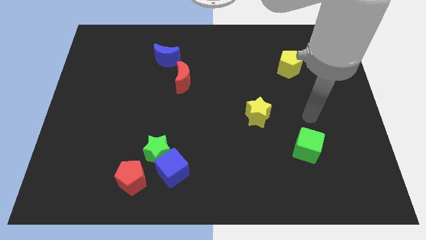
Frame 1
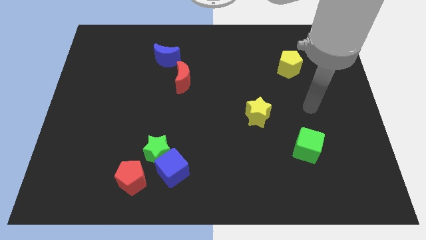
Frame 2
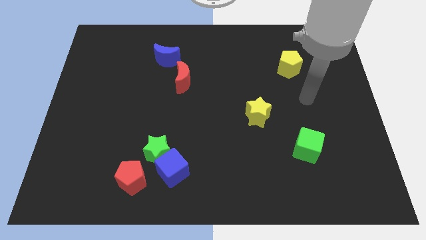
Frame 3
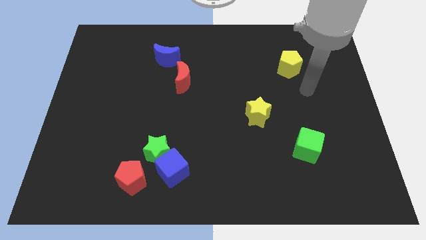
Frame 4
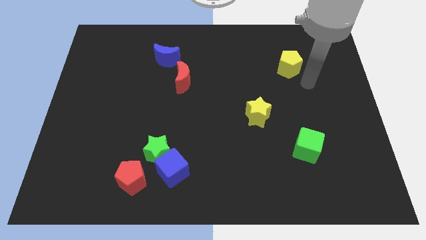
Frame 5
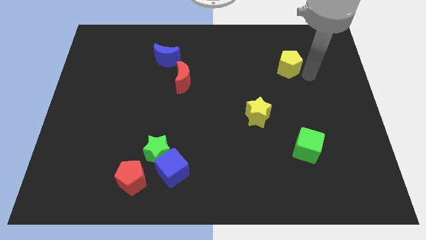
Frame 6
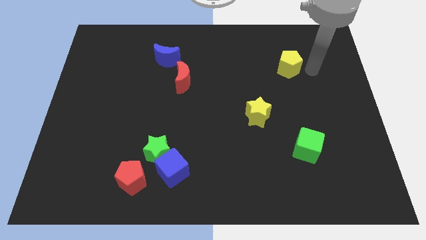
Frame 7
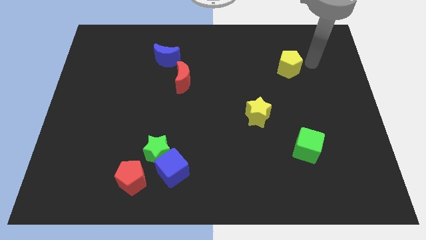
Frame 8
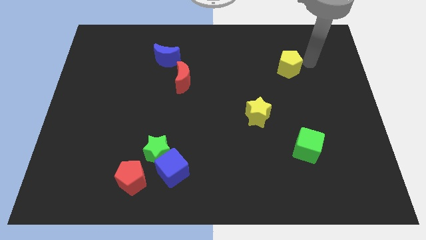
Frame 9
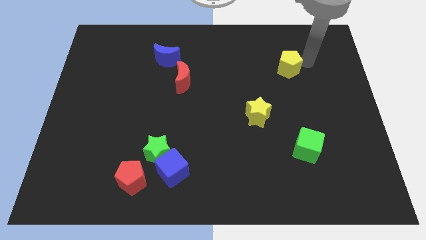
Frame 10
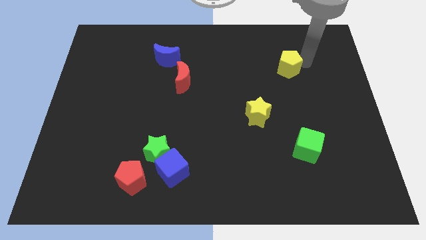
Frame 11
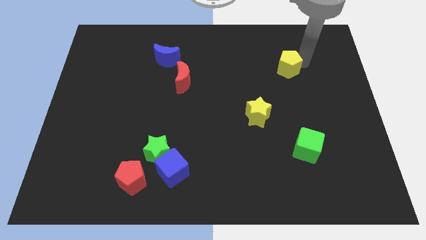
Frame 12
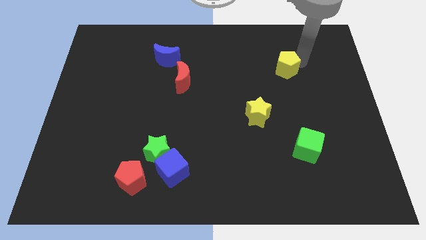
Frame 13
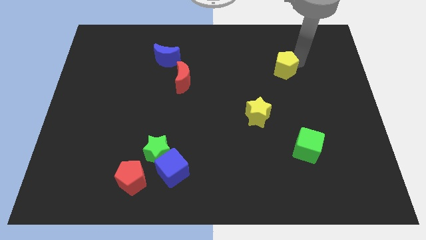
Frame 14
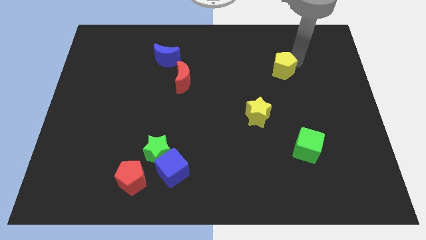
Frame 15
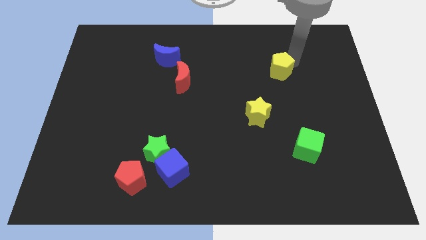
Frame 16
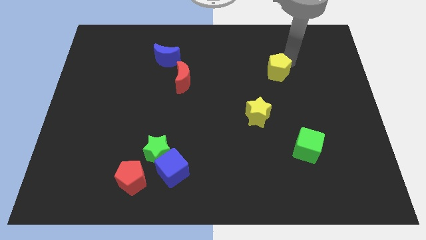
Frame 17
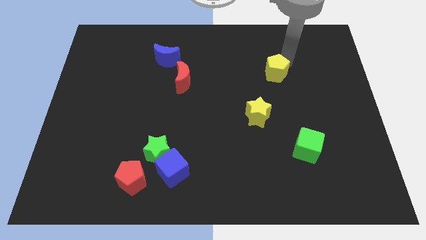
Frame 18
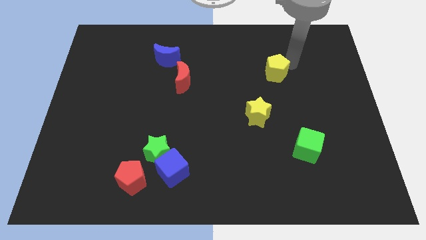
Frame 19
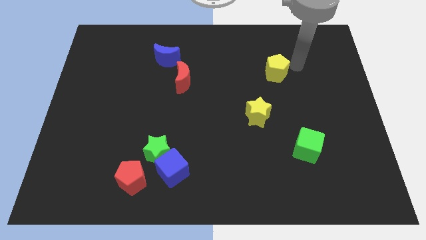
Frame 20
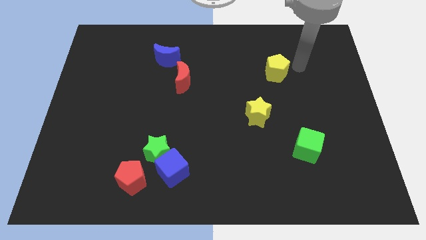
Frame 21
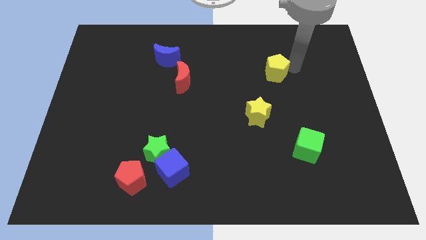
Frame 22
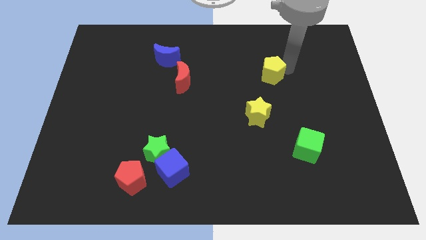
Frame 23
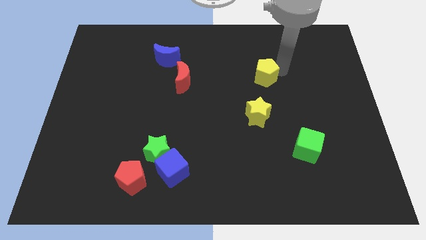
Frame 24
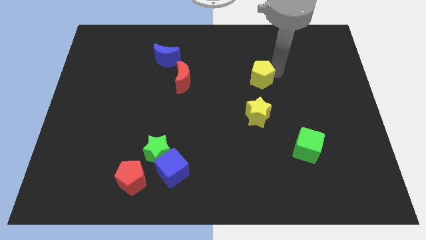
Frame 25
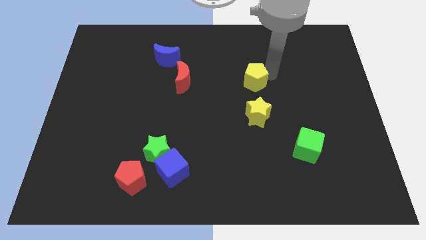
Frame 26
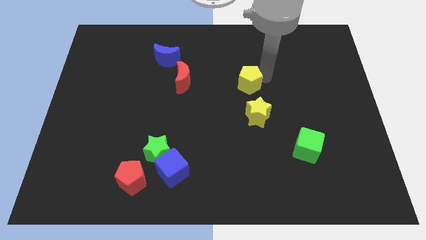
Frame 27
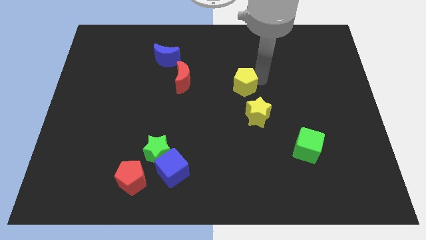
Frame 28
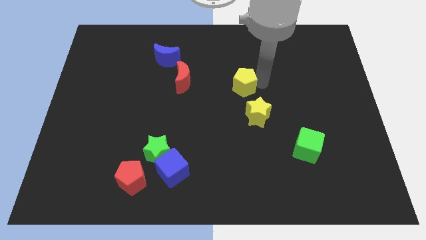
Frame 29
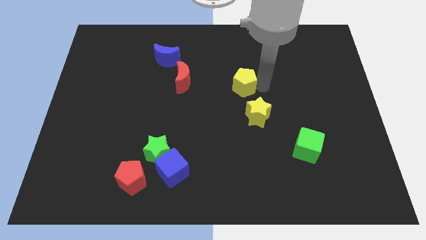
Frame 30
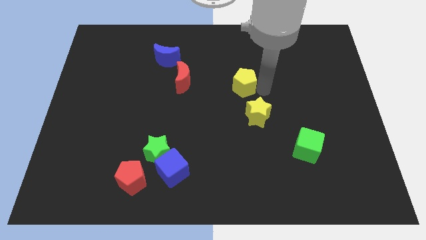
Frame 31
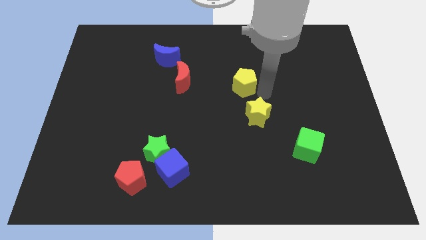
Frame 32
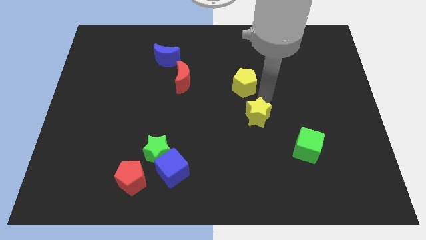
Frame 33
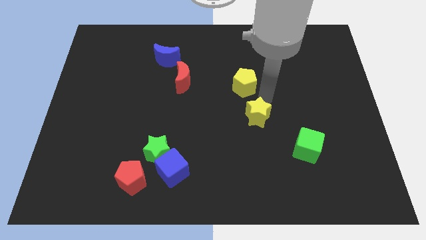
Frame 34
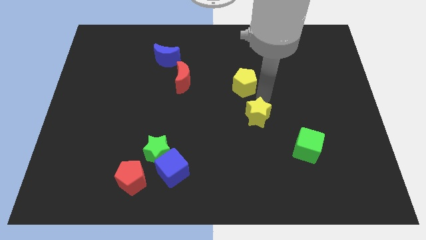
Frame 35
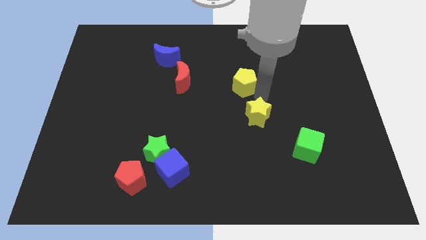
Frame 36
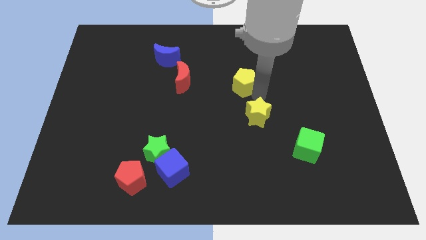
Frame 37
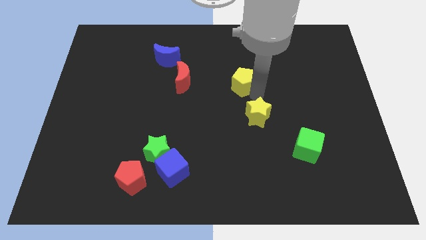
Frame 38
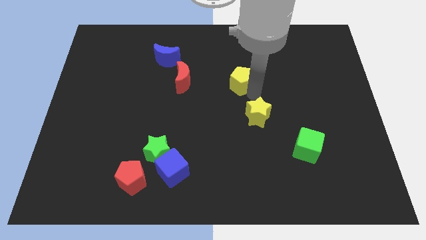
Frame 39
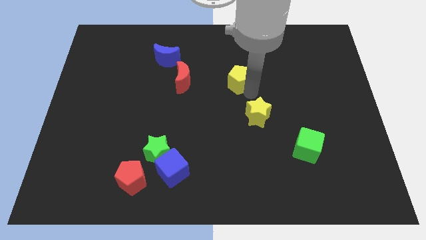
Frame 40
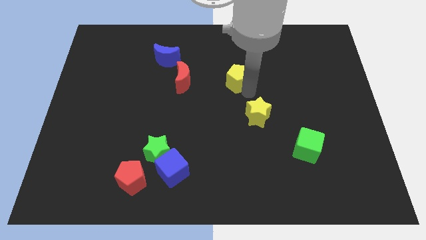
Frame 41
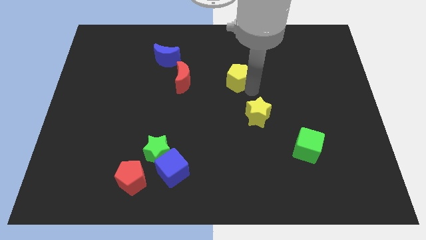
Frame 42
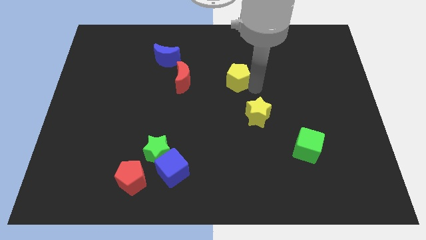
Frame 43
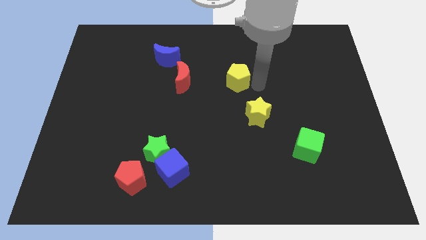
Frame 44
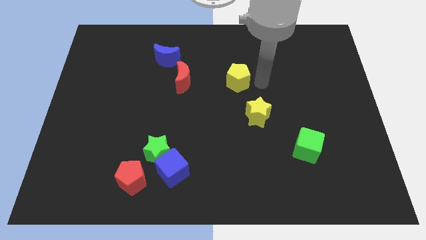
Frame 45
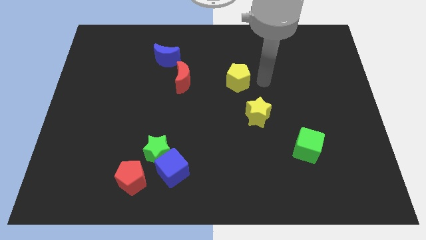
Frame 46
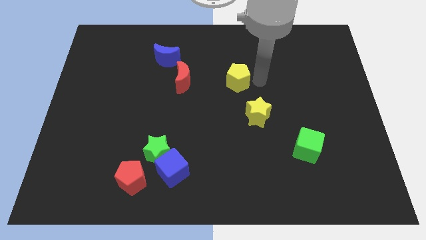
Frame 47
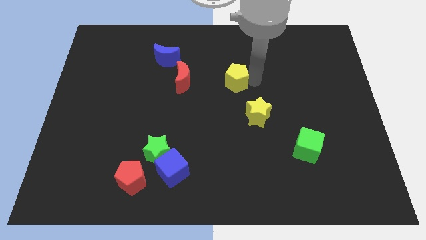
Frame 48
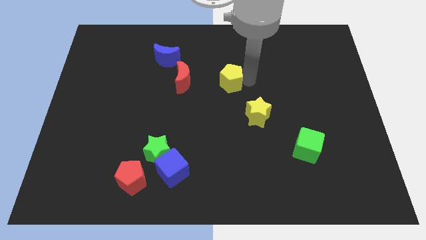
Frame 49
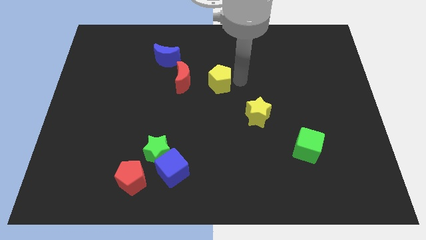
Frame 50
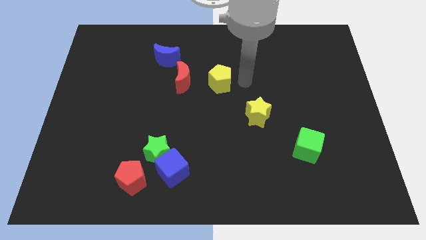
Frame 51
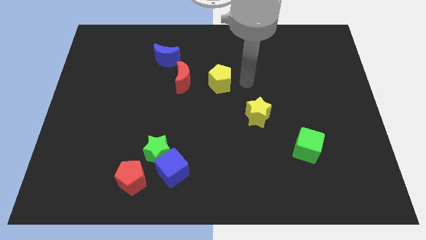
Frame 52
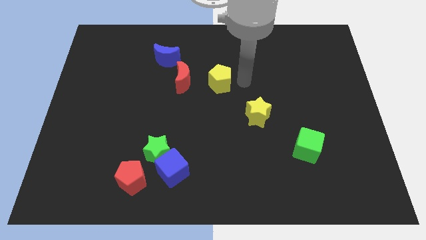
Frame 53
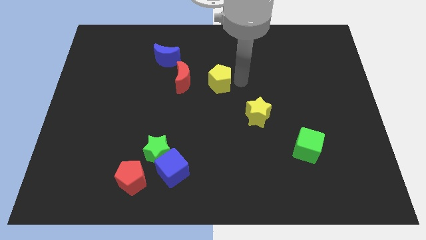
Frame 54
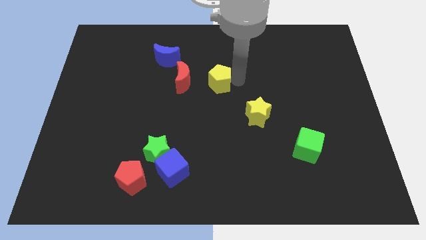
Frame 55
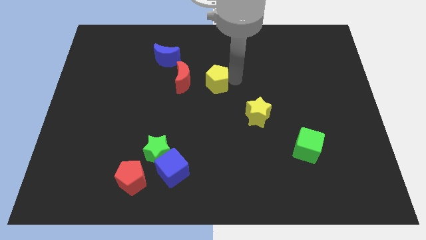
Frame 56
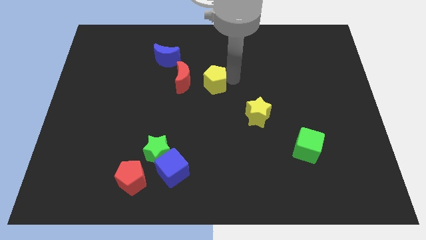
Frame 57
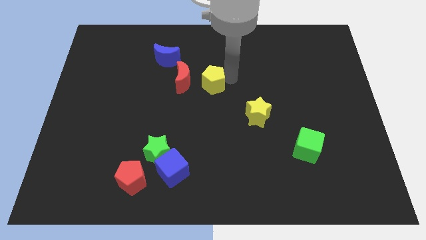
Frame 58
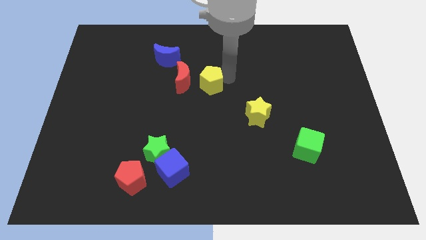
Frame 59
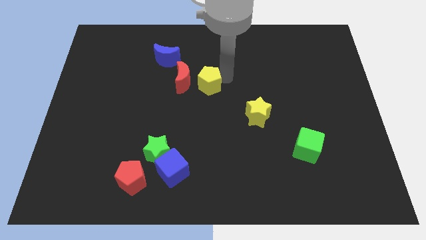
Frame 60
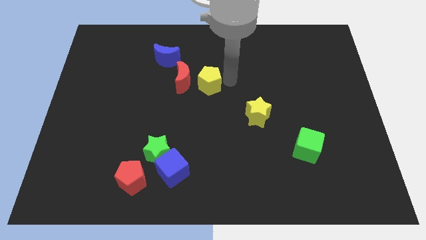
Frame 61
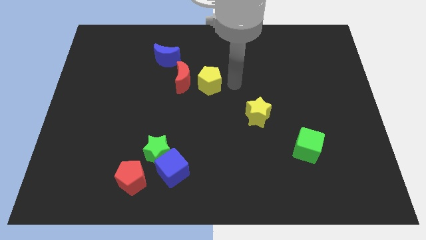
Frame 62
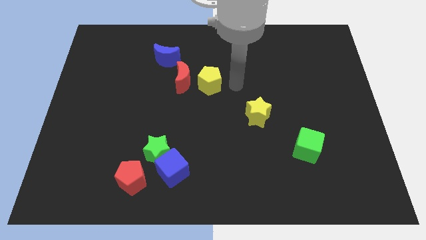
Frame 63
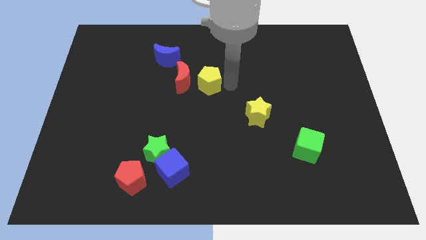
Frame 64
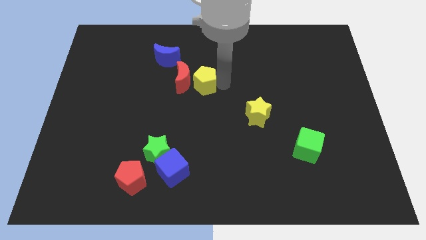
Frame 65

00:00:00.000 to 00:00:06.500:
push the yellow pentagon next to the red moon

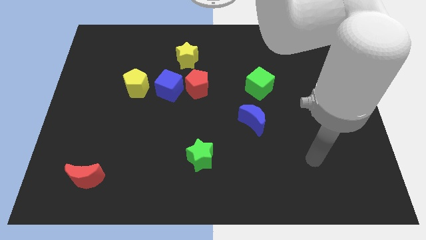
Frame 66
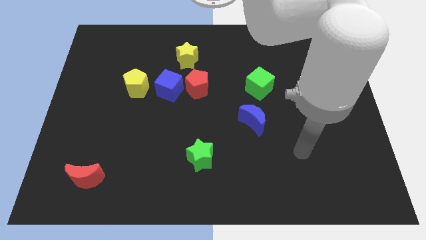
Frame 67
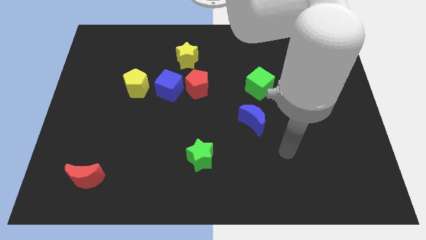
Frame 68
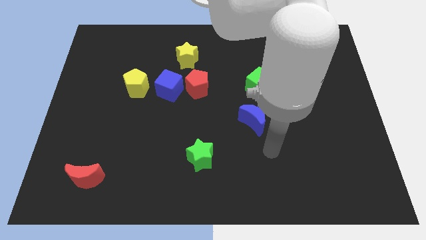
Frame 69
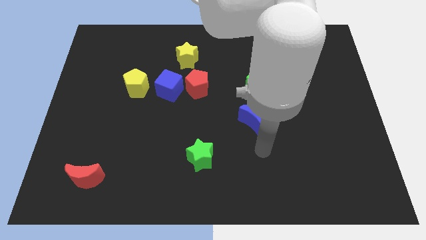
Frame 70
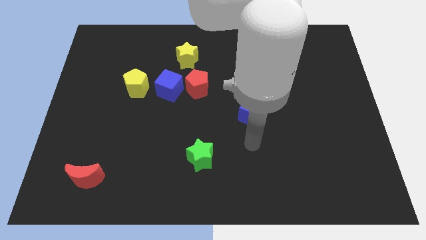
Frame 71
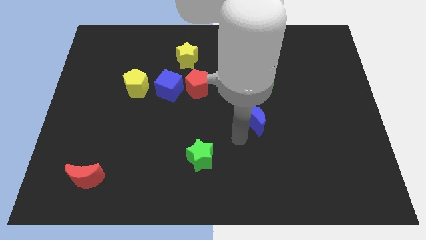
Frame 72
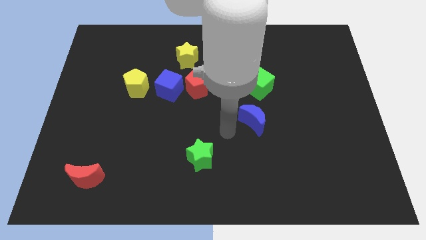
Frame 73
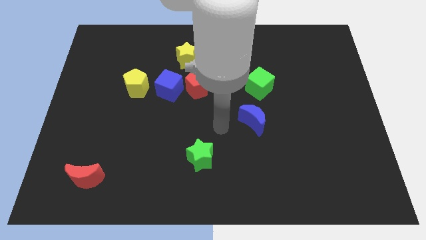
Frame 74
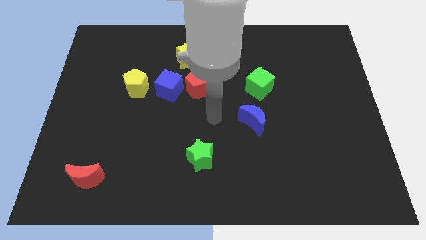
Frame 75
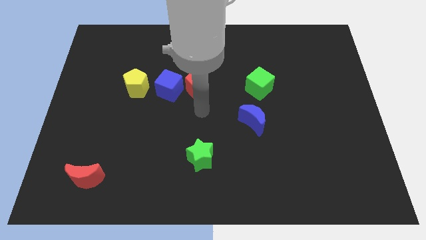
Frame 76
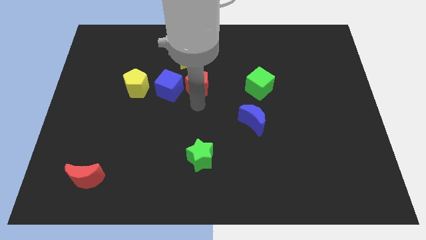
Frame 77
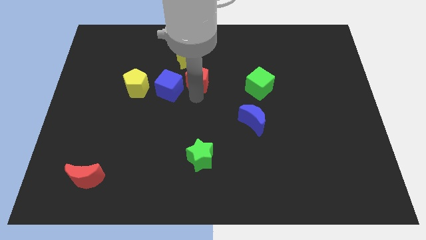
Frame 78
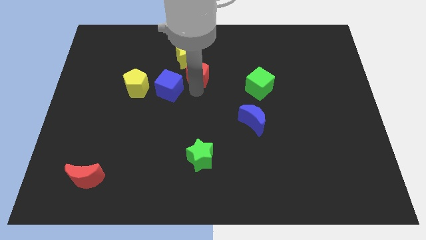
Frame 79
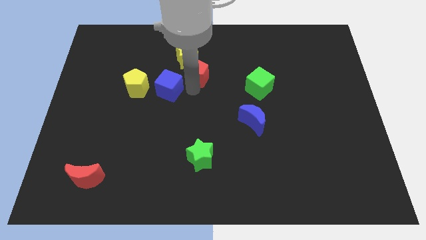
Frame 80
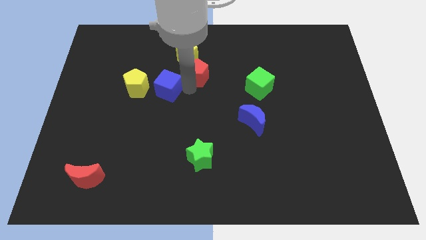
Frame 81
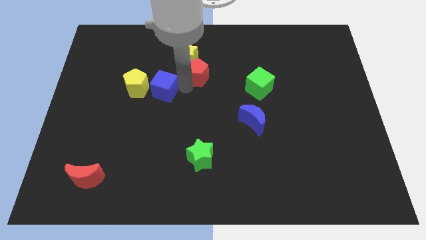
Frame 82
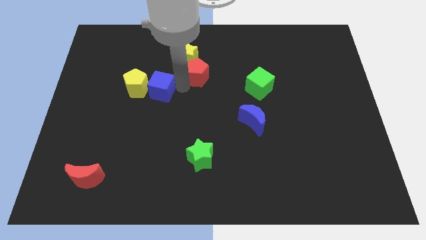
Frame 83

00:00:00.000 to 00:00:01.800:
slide the blue cube towards the yellow pentagon
